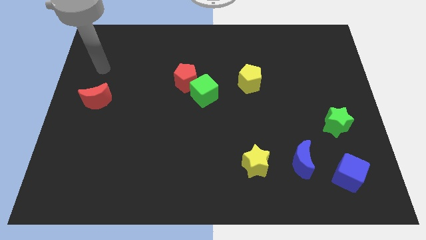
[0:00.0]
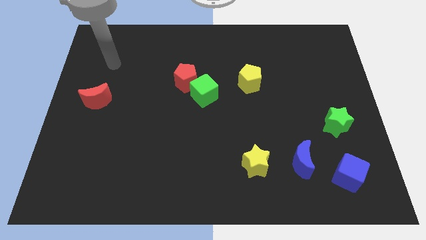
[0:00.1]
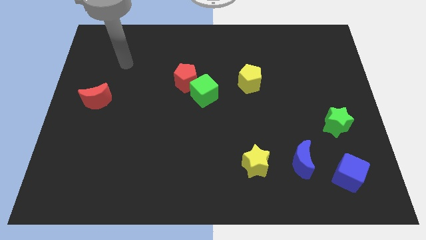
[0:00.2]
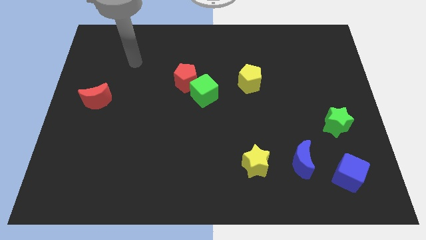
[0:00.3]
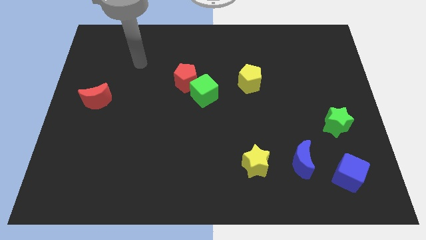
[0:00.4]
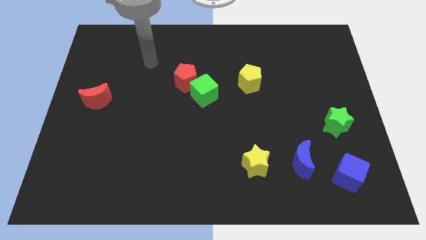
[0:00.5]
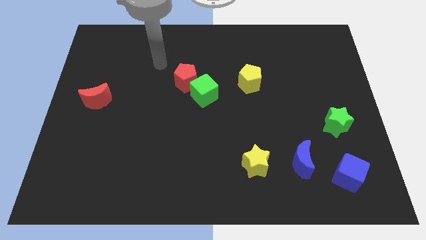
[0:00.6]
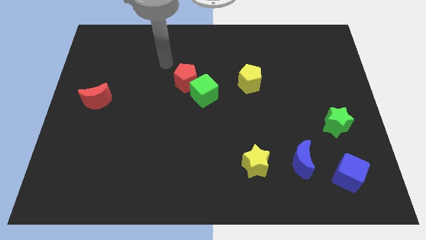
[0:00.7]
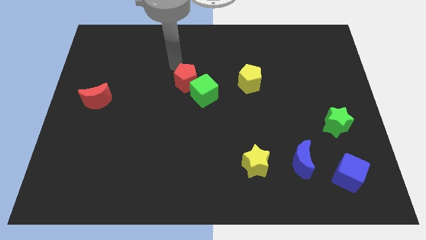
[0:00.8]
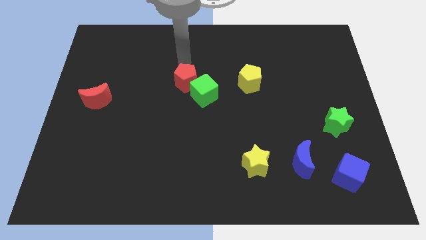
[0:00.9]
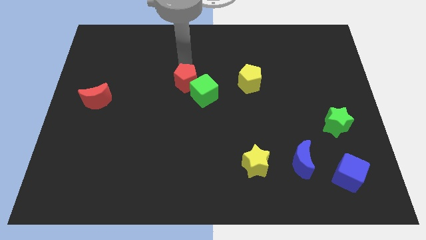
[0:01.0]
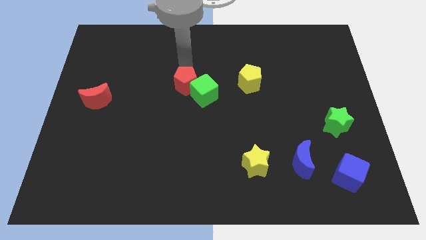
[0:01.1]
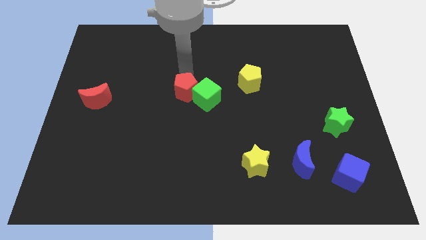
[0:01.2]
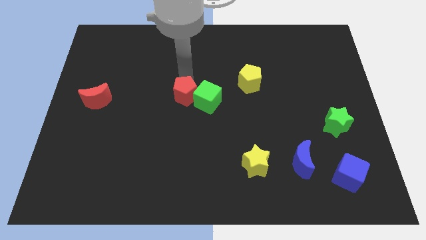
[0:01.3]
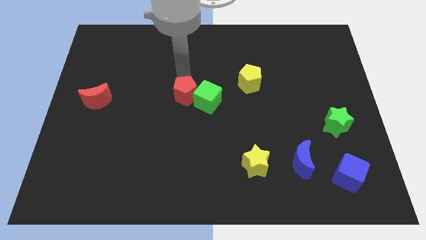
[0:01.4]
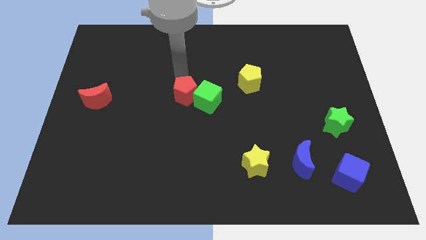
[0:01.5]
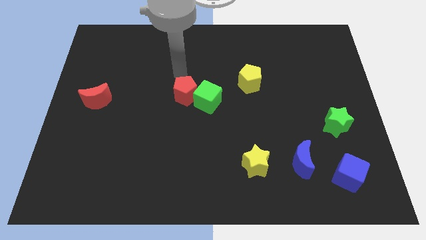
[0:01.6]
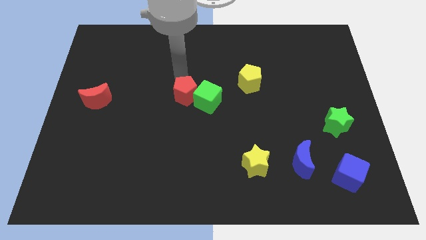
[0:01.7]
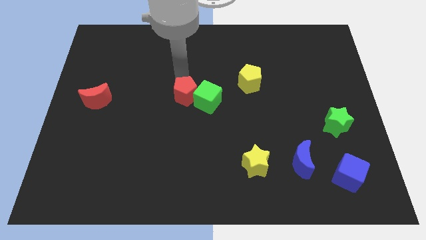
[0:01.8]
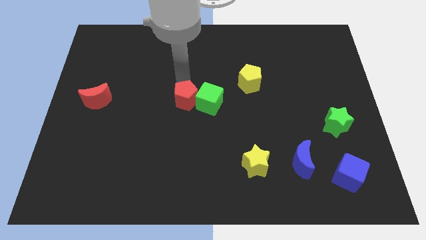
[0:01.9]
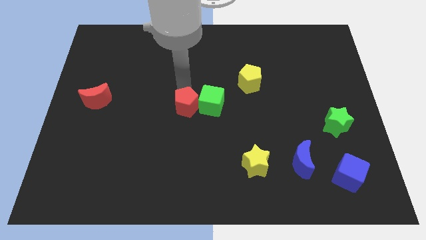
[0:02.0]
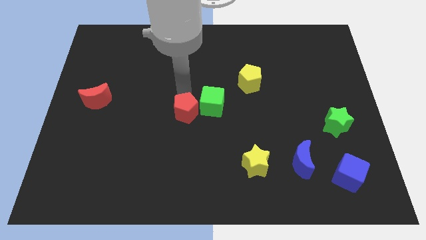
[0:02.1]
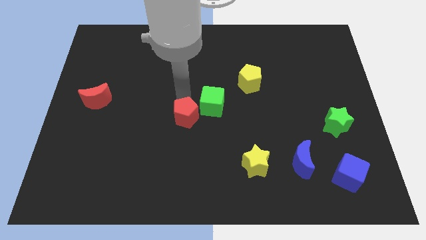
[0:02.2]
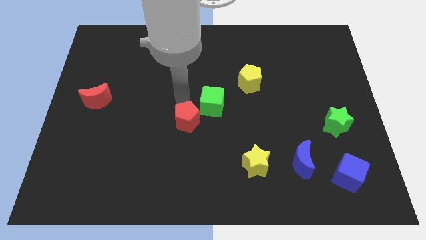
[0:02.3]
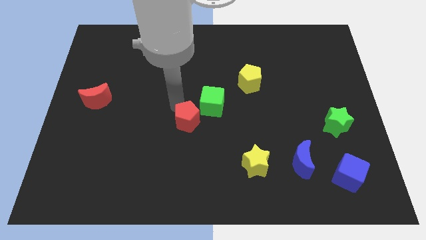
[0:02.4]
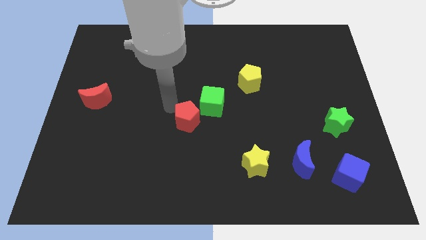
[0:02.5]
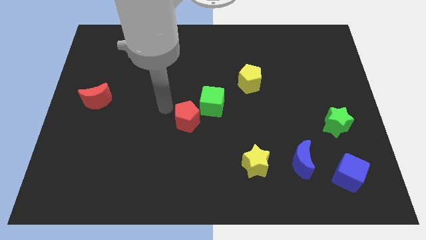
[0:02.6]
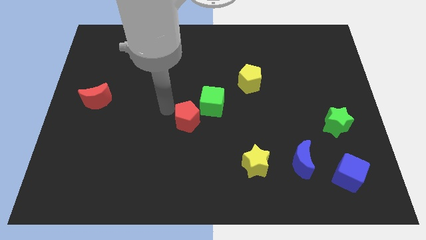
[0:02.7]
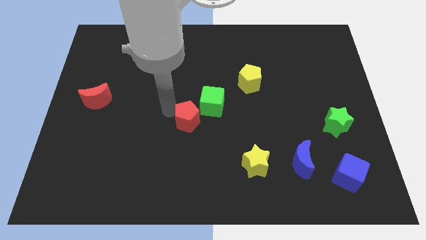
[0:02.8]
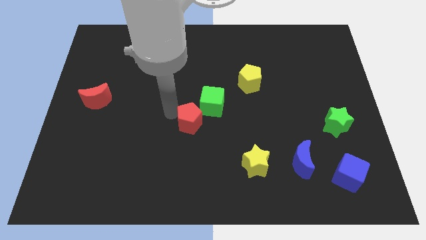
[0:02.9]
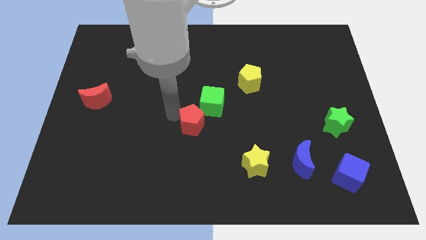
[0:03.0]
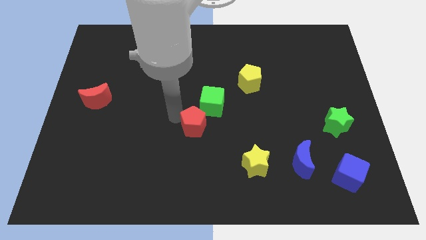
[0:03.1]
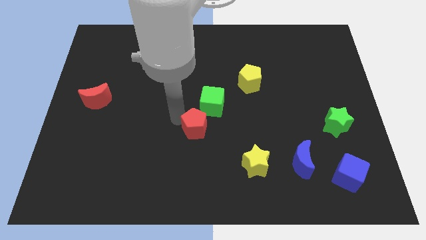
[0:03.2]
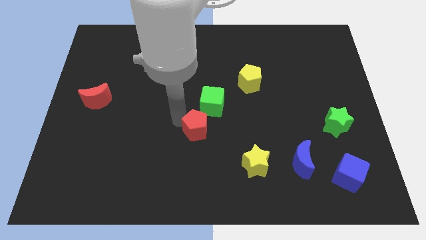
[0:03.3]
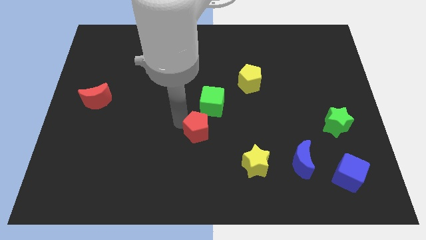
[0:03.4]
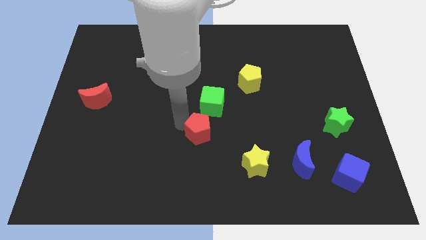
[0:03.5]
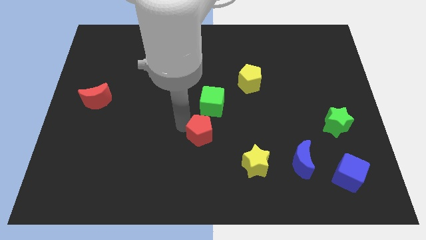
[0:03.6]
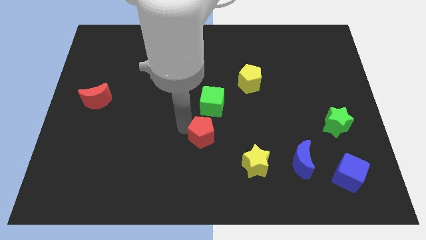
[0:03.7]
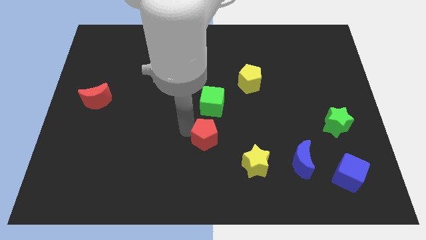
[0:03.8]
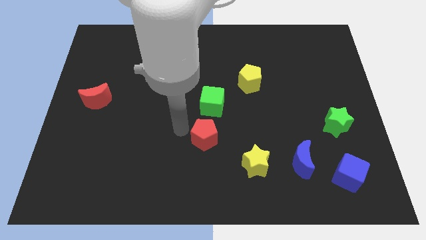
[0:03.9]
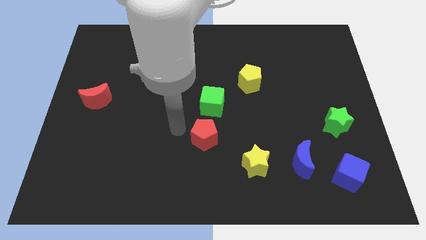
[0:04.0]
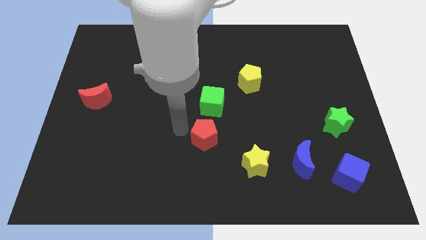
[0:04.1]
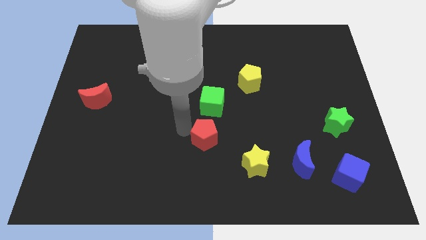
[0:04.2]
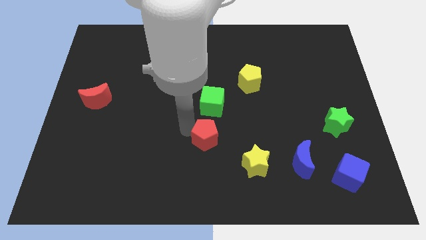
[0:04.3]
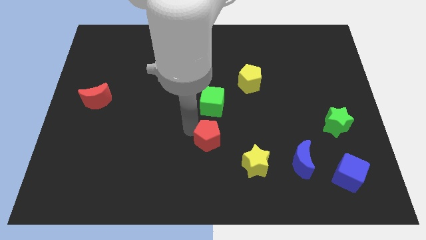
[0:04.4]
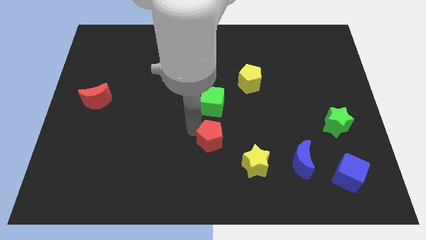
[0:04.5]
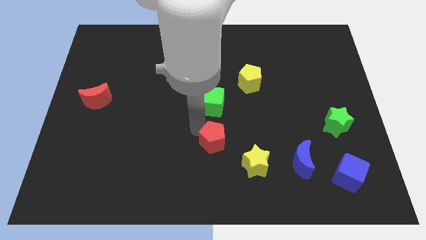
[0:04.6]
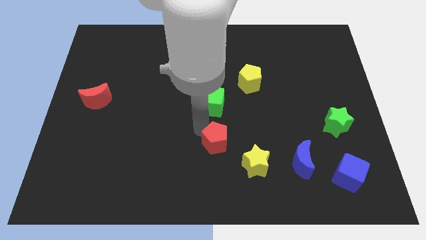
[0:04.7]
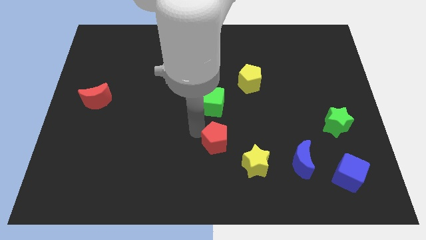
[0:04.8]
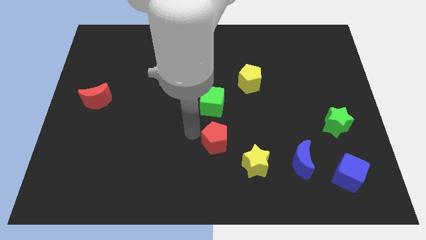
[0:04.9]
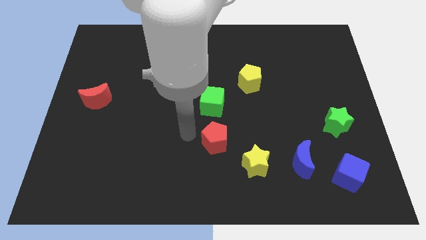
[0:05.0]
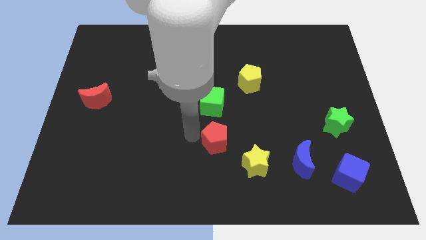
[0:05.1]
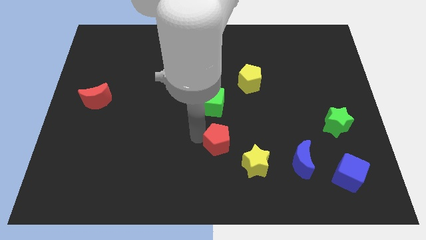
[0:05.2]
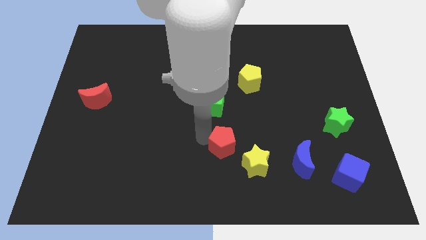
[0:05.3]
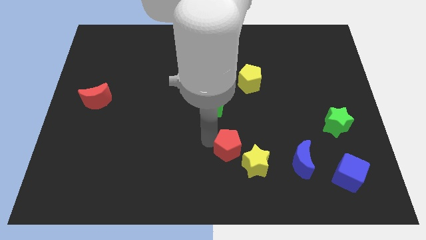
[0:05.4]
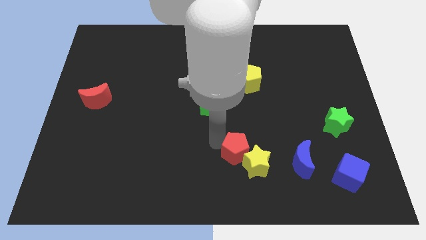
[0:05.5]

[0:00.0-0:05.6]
push the red pentagon close to the yellow star

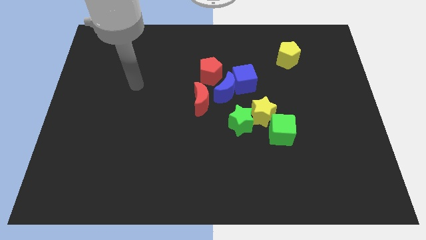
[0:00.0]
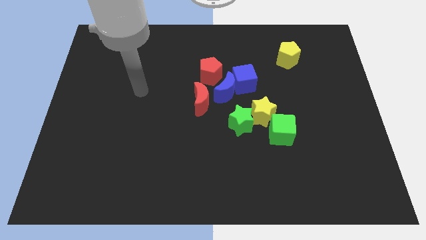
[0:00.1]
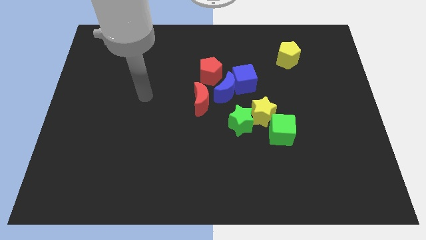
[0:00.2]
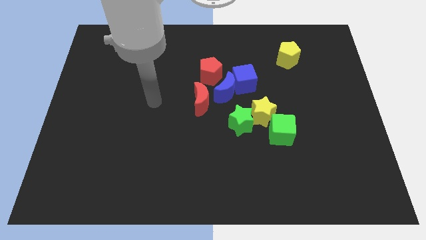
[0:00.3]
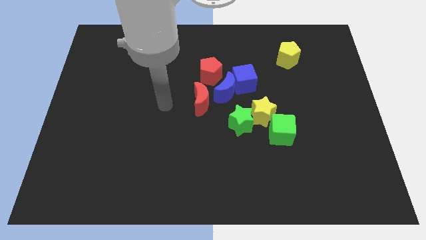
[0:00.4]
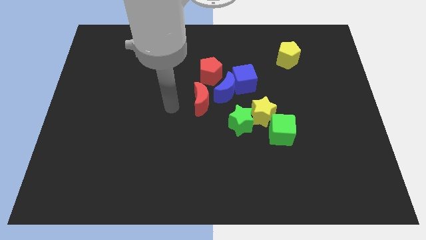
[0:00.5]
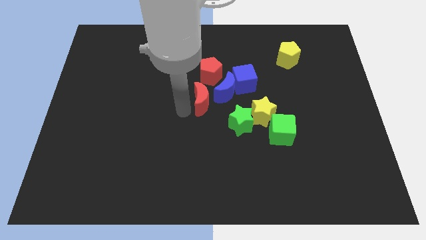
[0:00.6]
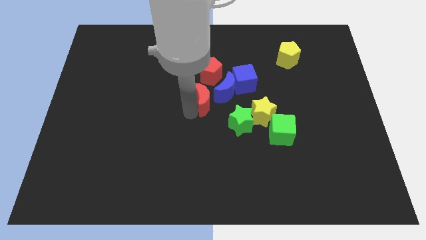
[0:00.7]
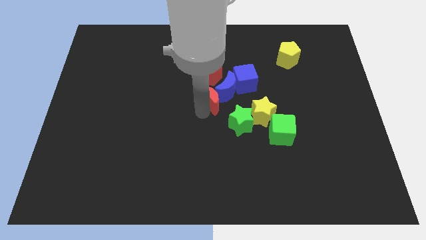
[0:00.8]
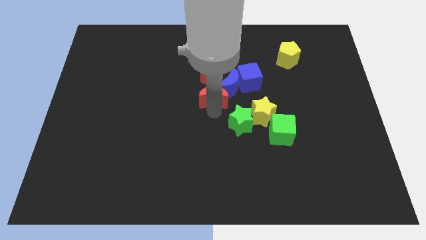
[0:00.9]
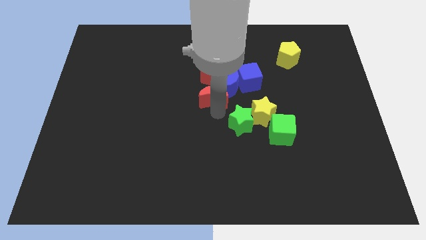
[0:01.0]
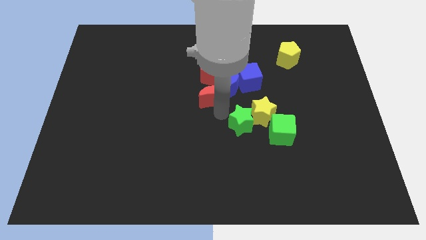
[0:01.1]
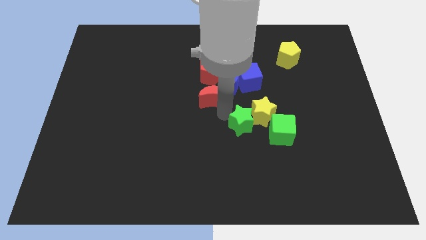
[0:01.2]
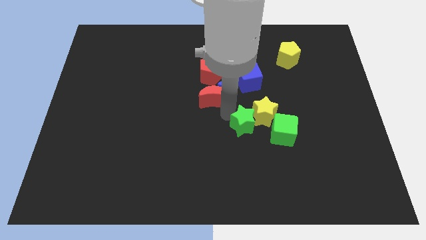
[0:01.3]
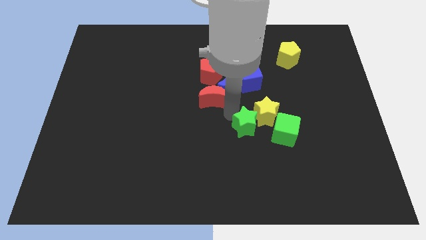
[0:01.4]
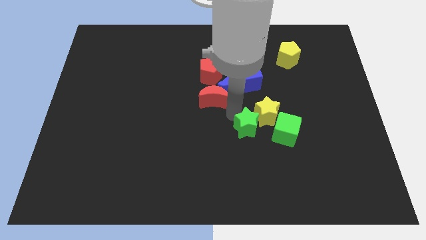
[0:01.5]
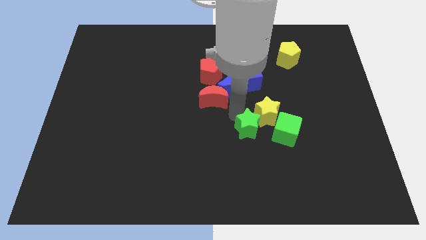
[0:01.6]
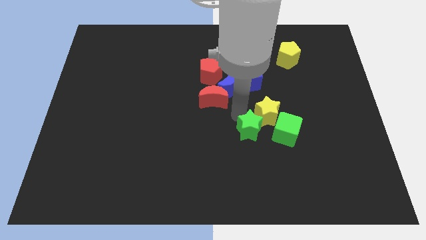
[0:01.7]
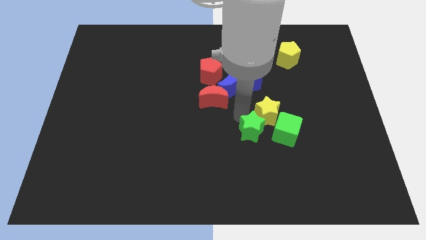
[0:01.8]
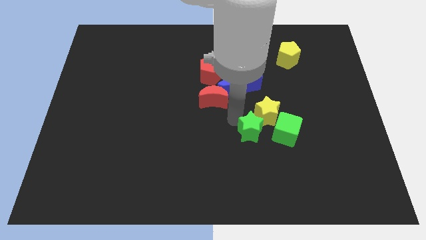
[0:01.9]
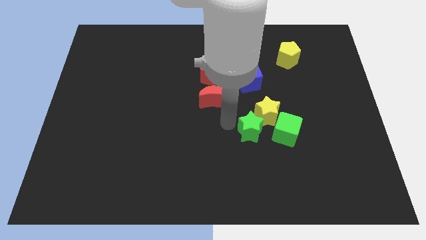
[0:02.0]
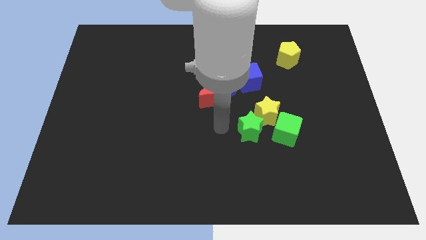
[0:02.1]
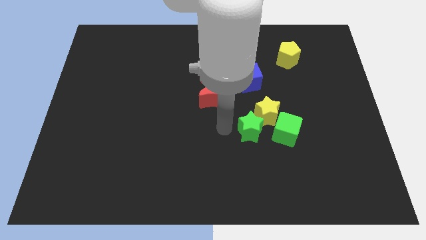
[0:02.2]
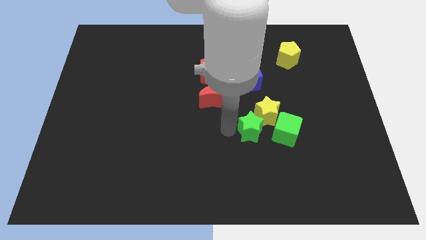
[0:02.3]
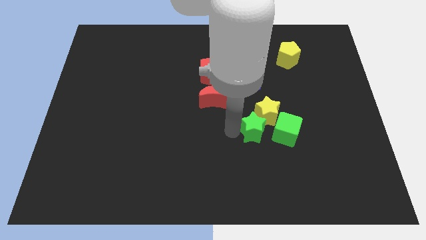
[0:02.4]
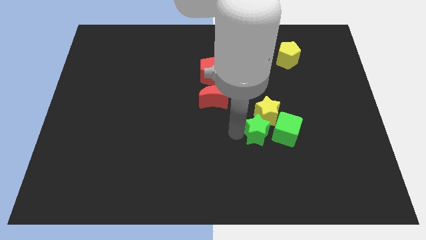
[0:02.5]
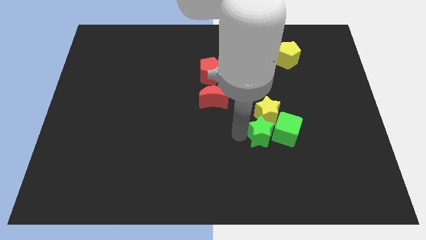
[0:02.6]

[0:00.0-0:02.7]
push the green star towards the green cube
